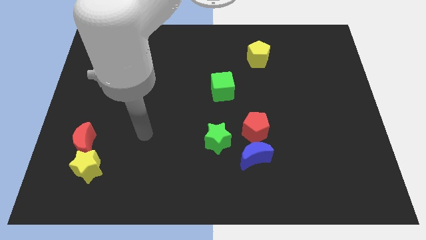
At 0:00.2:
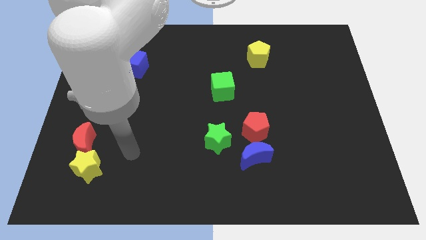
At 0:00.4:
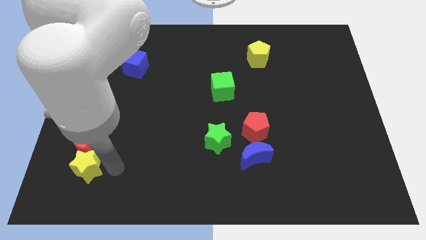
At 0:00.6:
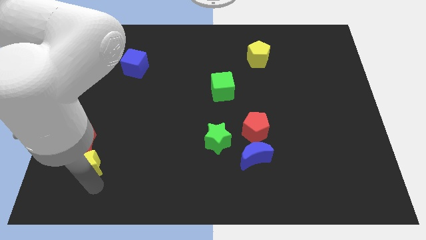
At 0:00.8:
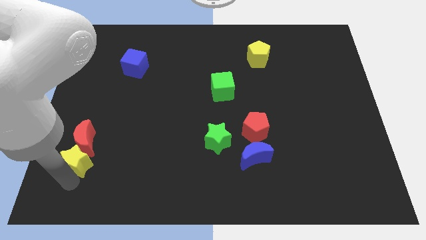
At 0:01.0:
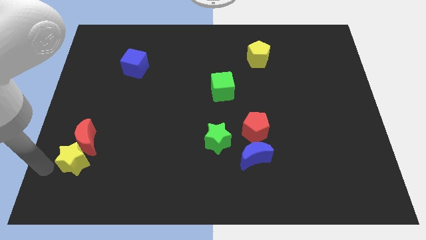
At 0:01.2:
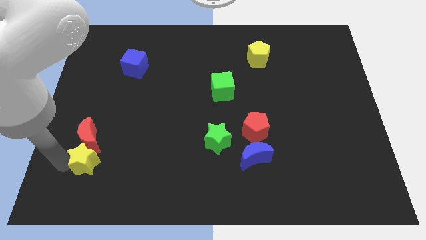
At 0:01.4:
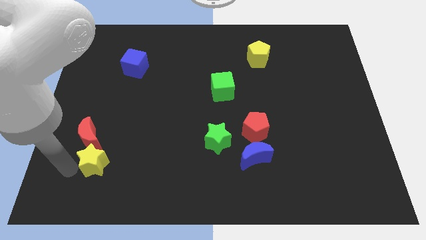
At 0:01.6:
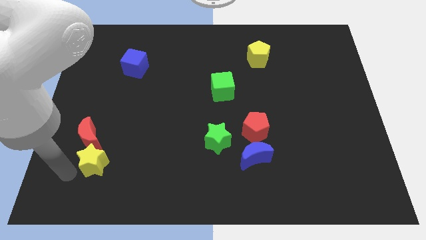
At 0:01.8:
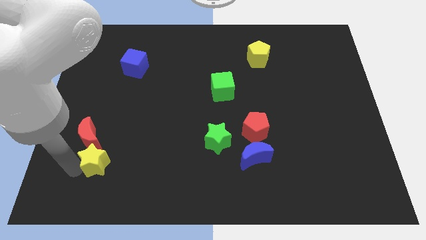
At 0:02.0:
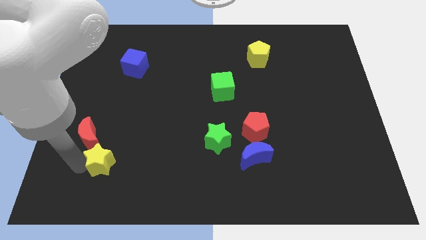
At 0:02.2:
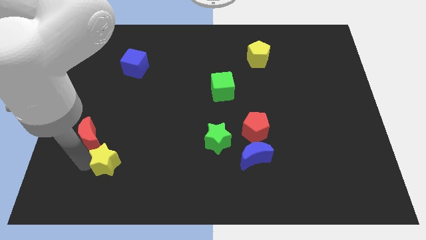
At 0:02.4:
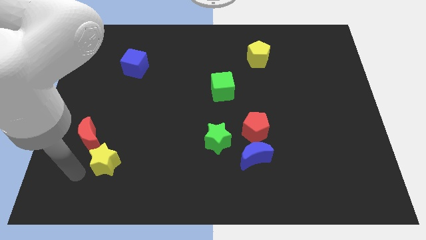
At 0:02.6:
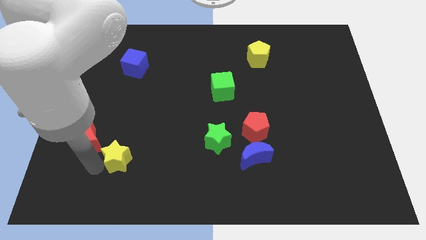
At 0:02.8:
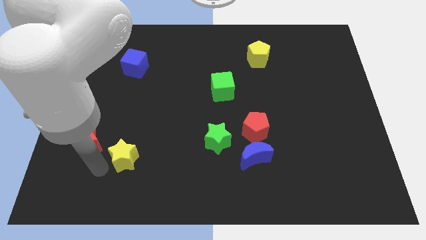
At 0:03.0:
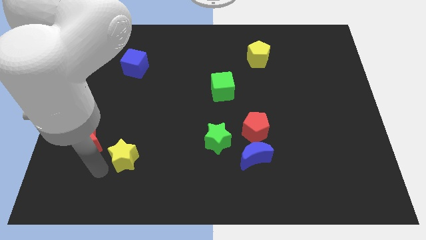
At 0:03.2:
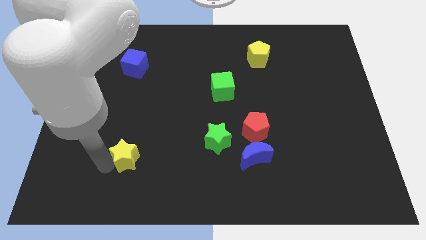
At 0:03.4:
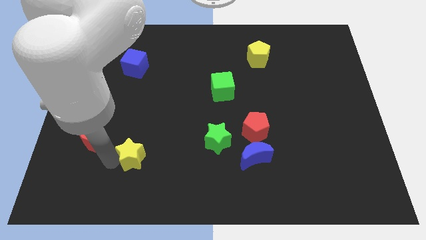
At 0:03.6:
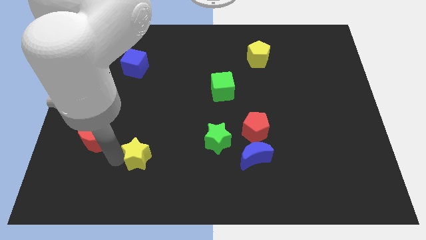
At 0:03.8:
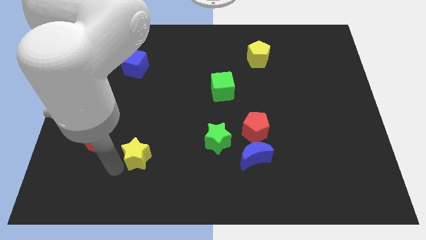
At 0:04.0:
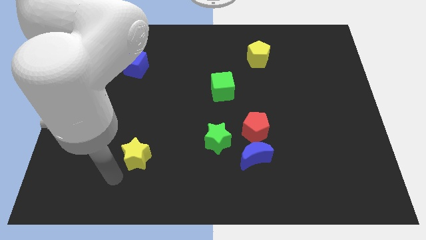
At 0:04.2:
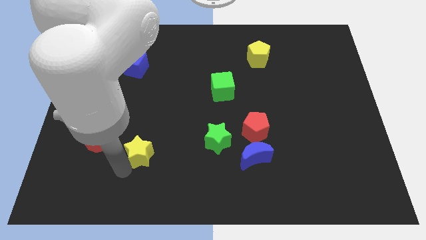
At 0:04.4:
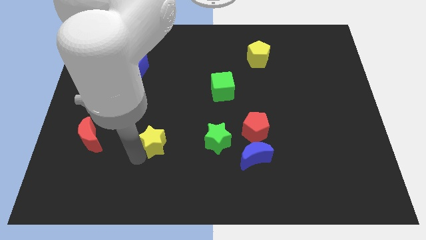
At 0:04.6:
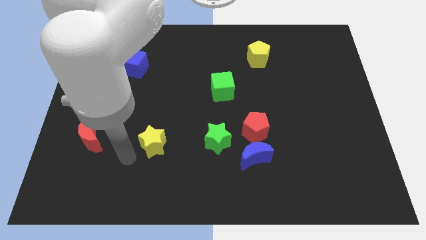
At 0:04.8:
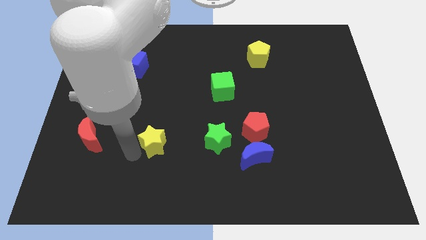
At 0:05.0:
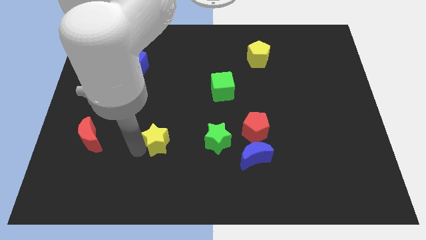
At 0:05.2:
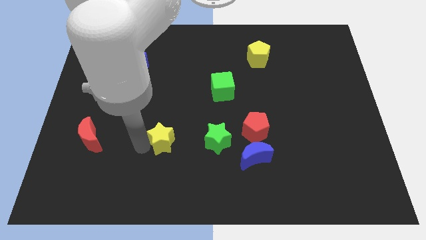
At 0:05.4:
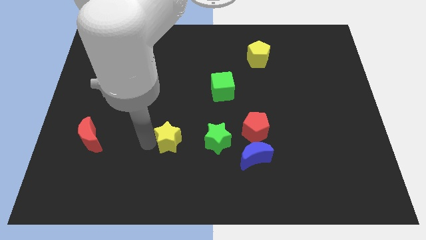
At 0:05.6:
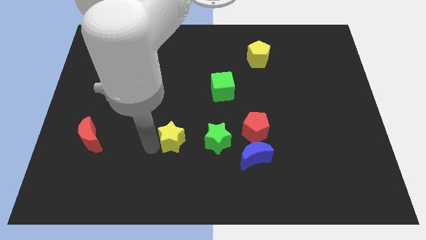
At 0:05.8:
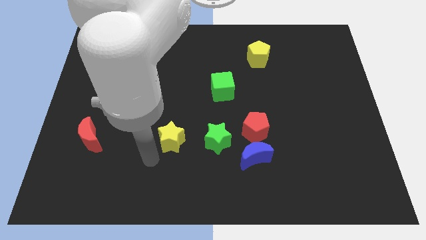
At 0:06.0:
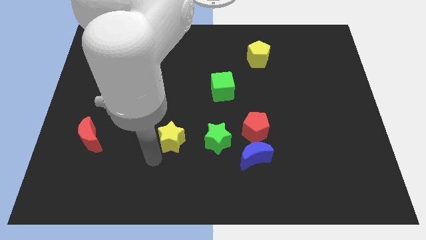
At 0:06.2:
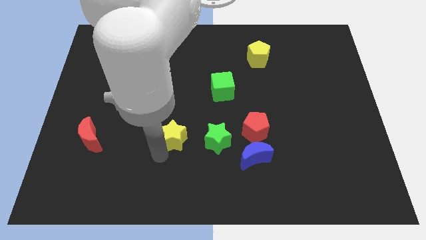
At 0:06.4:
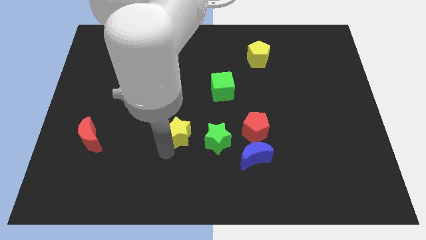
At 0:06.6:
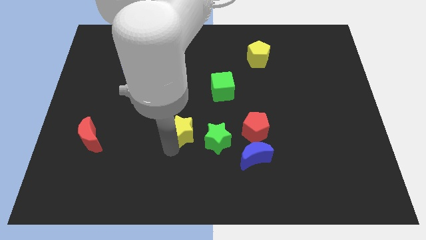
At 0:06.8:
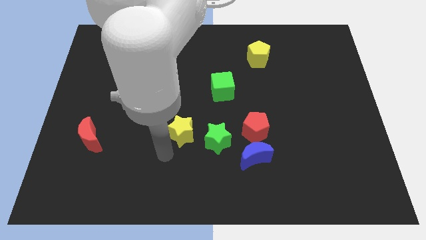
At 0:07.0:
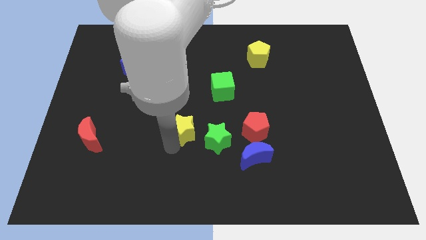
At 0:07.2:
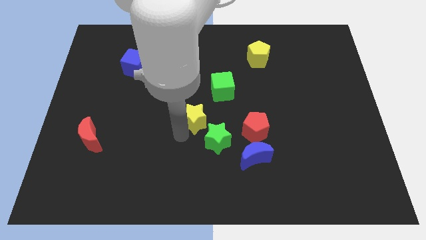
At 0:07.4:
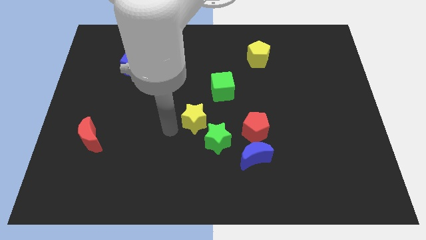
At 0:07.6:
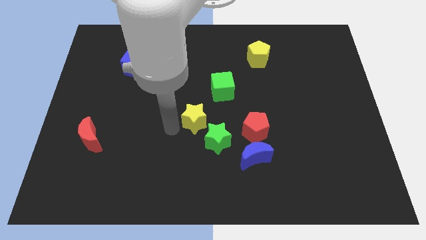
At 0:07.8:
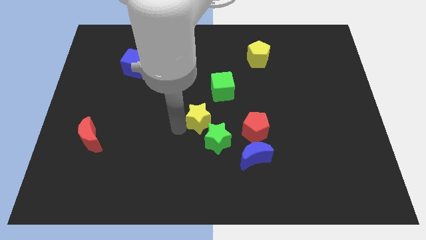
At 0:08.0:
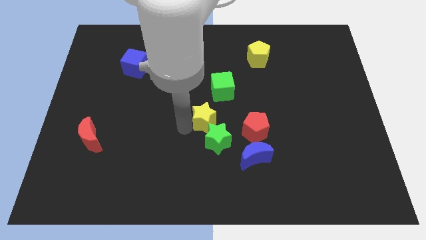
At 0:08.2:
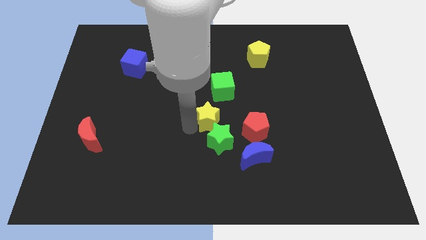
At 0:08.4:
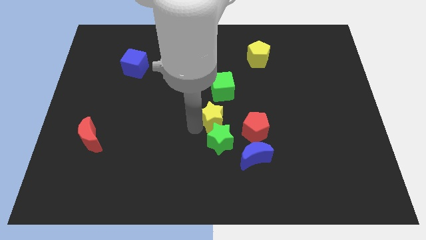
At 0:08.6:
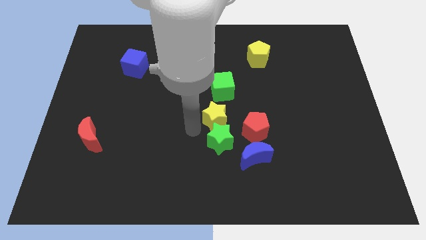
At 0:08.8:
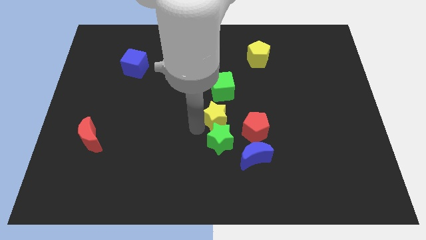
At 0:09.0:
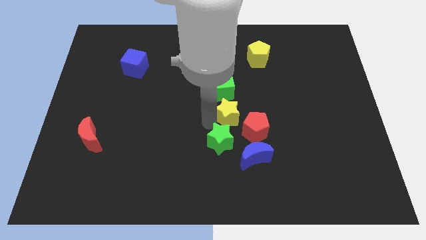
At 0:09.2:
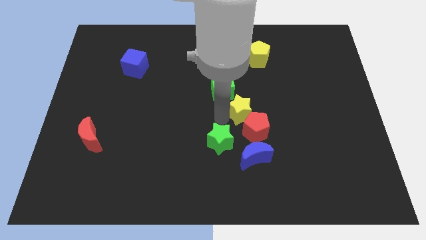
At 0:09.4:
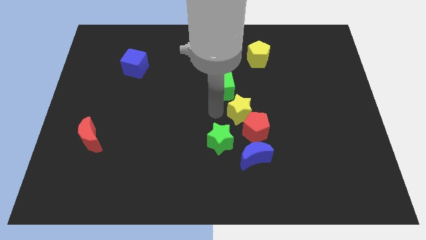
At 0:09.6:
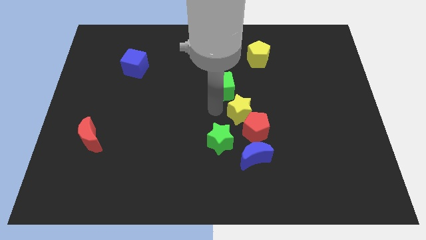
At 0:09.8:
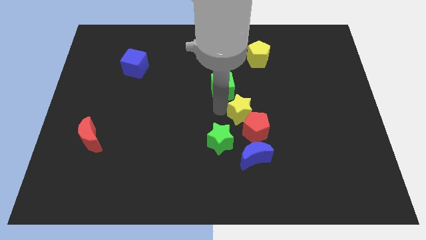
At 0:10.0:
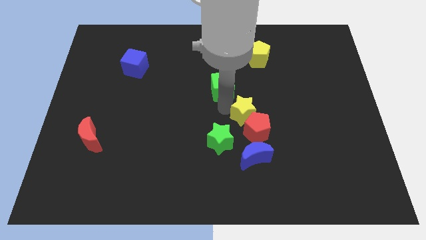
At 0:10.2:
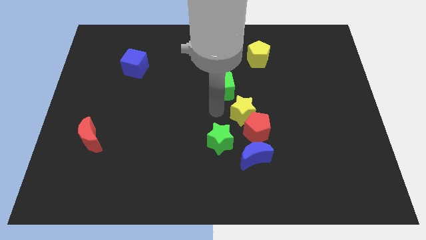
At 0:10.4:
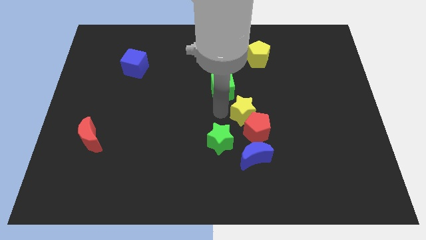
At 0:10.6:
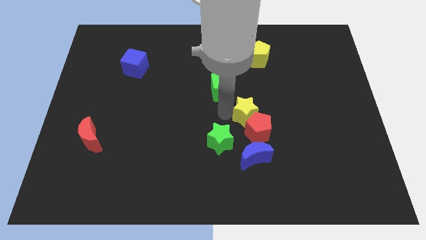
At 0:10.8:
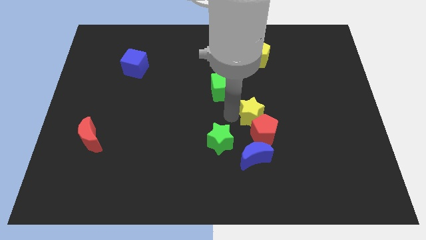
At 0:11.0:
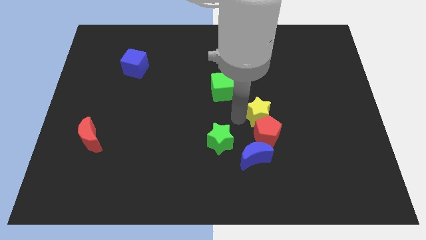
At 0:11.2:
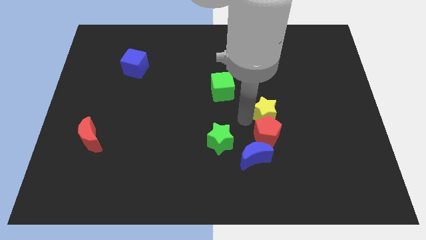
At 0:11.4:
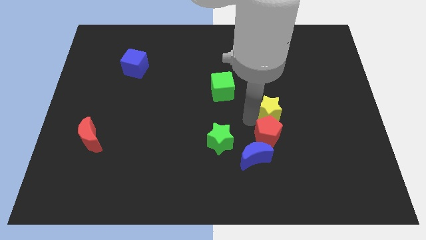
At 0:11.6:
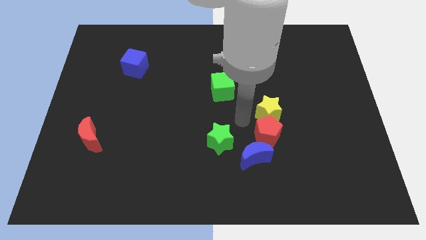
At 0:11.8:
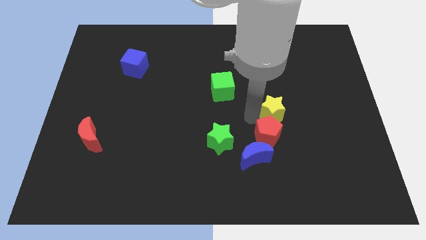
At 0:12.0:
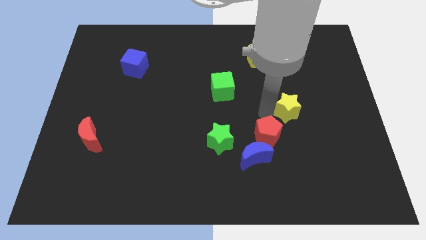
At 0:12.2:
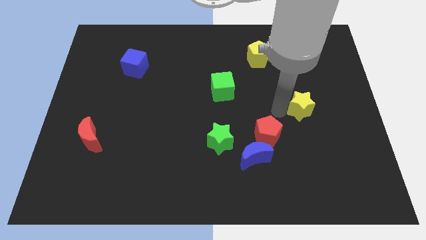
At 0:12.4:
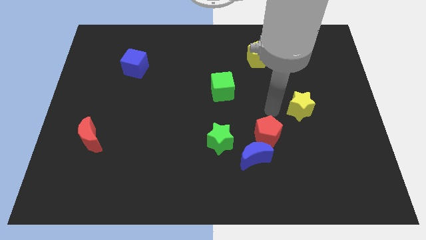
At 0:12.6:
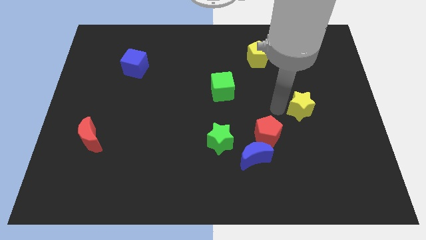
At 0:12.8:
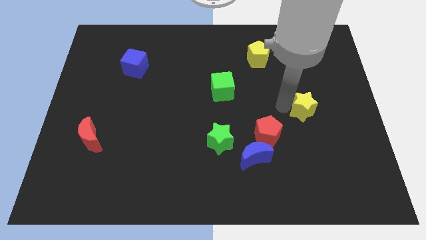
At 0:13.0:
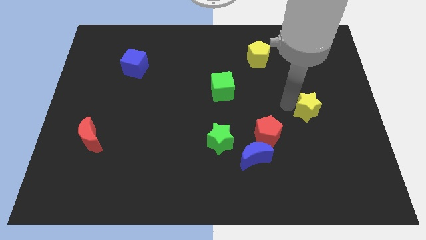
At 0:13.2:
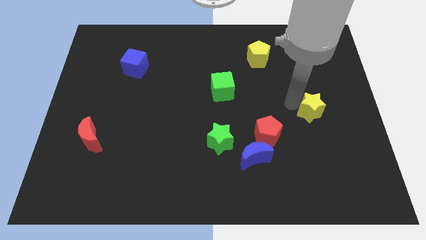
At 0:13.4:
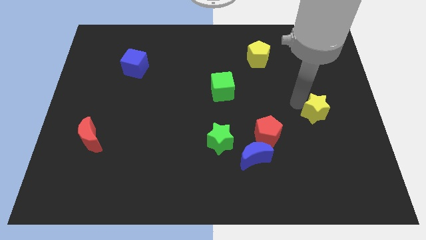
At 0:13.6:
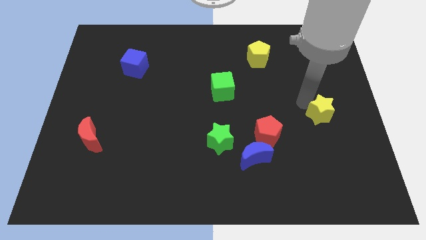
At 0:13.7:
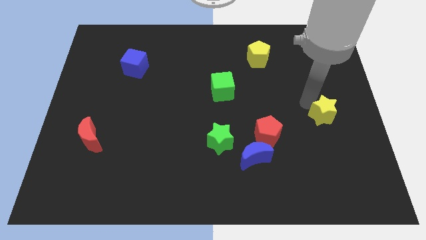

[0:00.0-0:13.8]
slide the yellow star to the right side of the board
